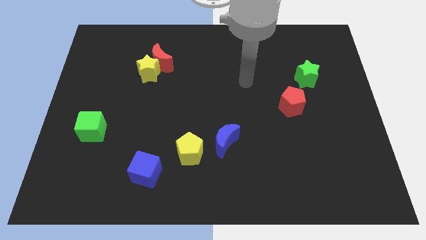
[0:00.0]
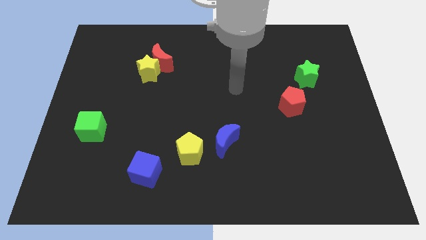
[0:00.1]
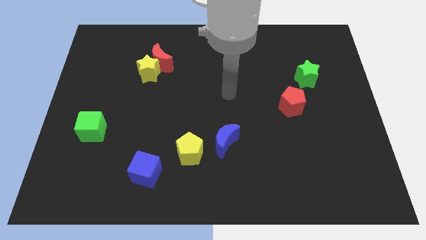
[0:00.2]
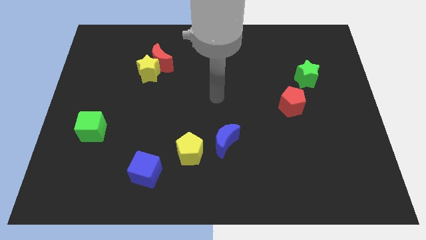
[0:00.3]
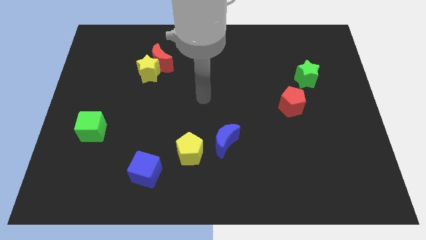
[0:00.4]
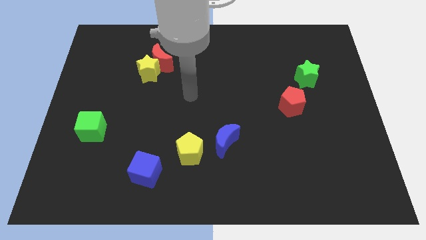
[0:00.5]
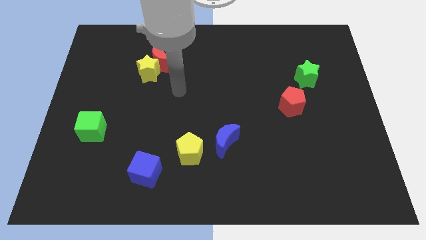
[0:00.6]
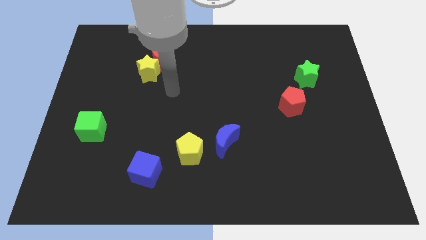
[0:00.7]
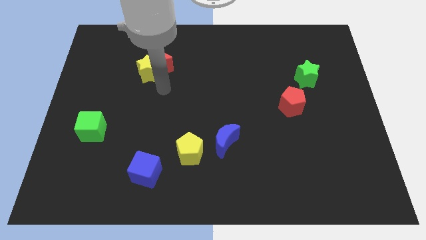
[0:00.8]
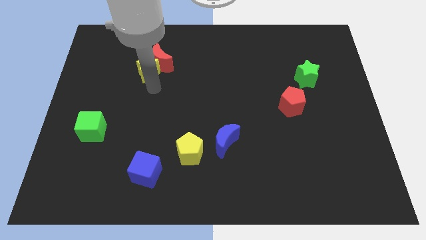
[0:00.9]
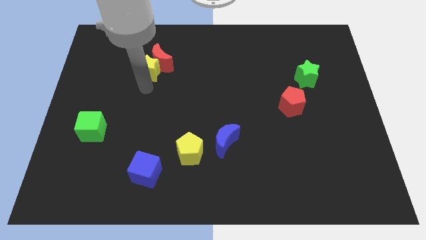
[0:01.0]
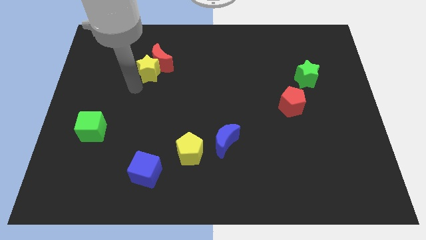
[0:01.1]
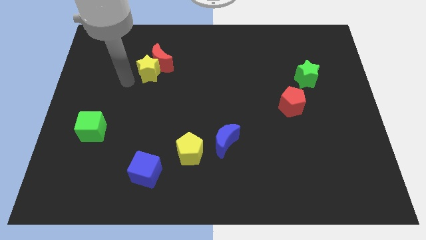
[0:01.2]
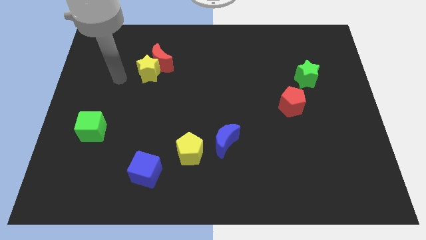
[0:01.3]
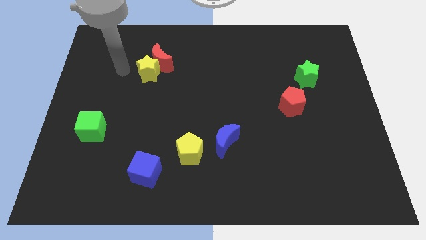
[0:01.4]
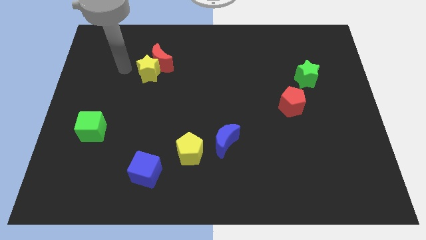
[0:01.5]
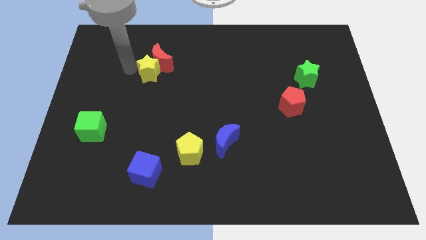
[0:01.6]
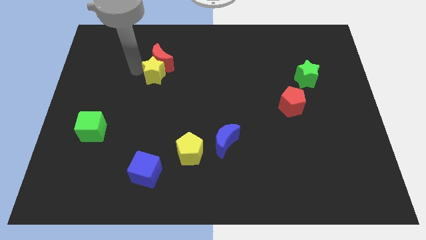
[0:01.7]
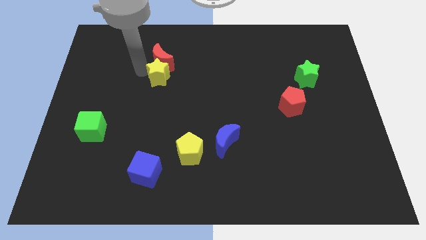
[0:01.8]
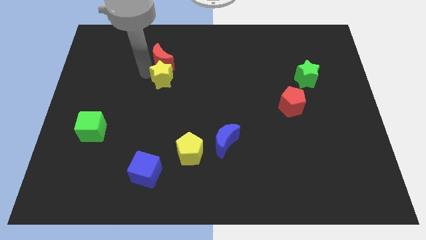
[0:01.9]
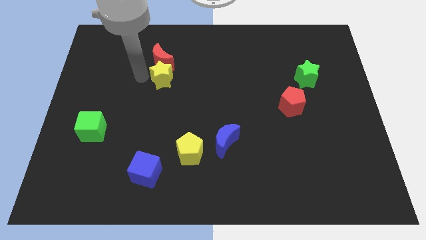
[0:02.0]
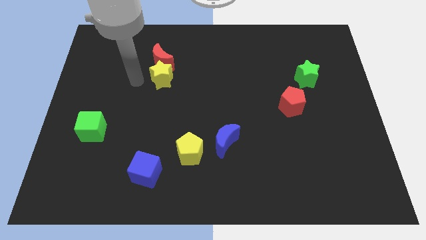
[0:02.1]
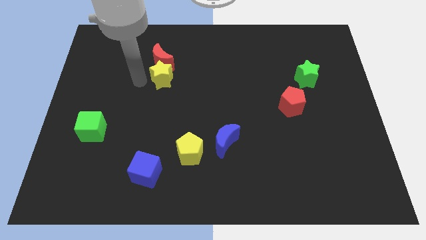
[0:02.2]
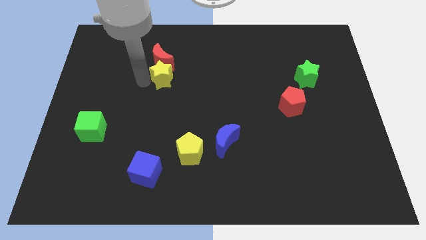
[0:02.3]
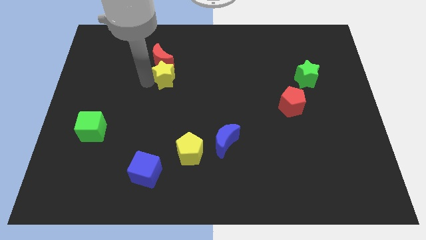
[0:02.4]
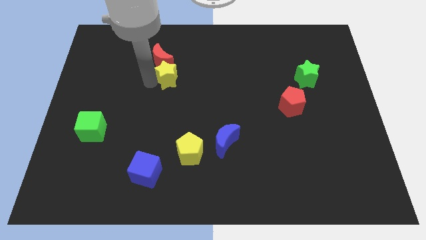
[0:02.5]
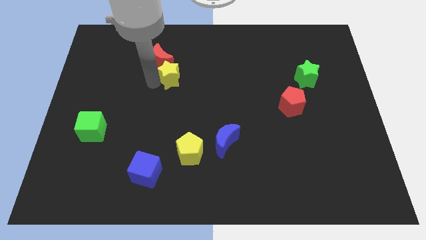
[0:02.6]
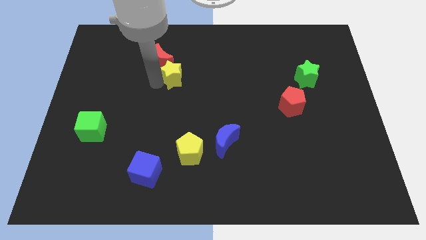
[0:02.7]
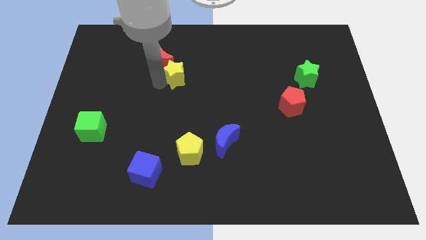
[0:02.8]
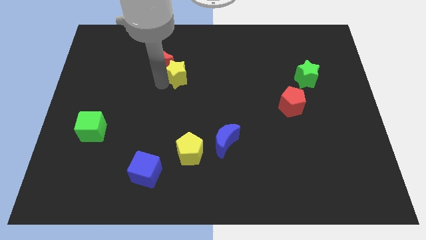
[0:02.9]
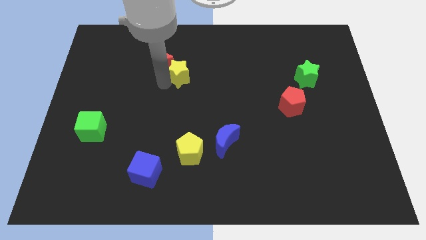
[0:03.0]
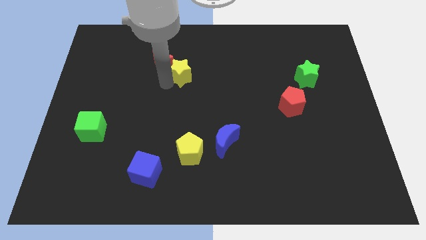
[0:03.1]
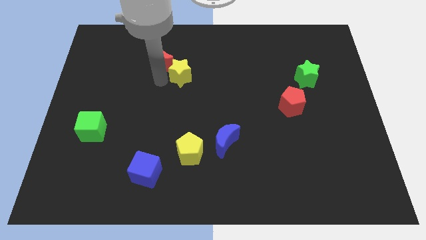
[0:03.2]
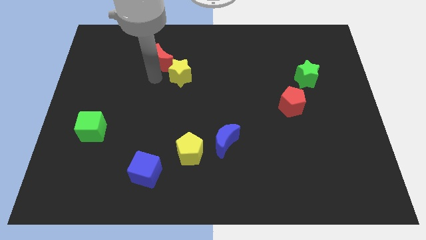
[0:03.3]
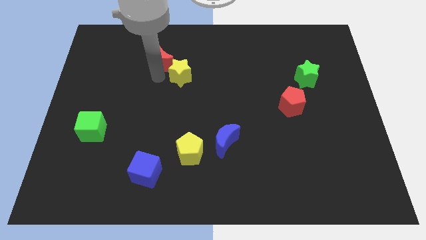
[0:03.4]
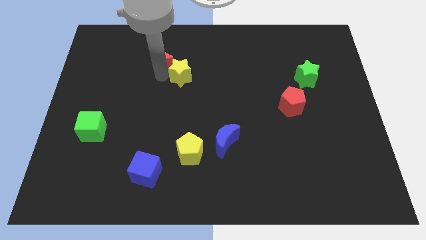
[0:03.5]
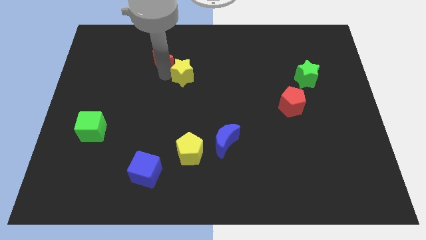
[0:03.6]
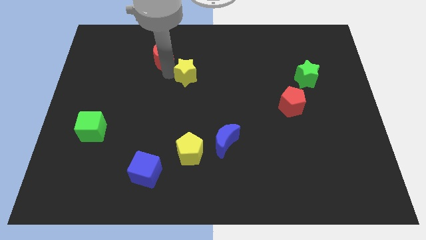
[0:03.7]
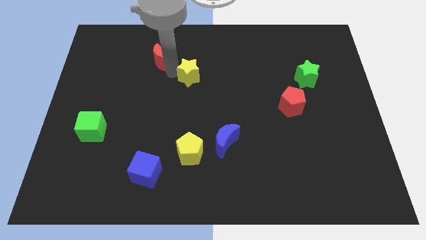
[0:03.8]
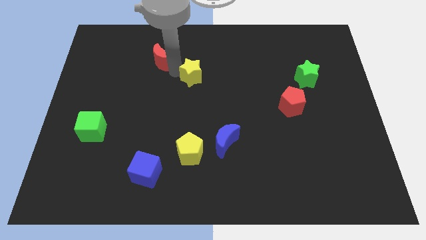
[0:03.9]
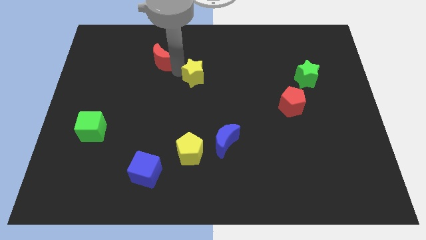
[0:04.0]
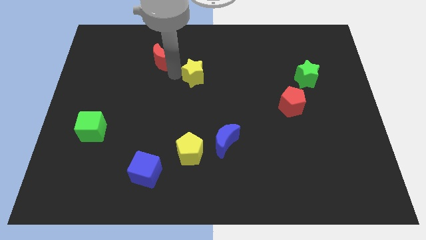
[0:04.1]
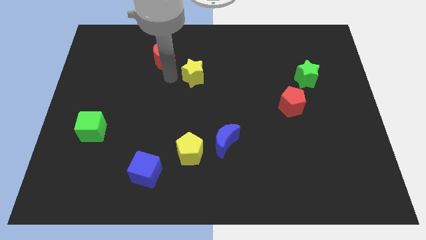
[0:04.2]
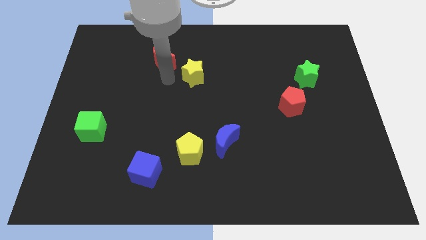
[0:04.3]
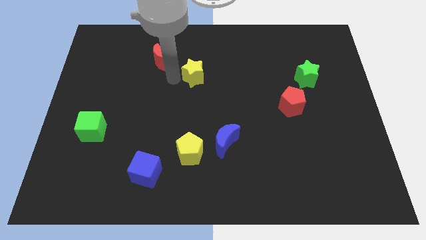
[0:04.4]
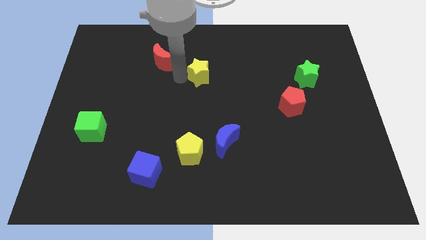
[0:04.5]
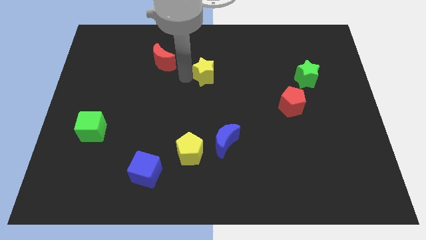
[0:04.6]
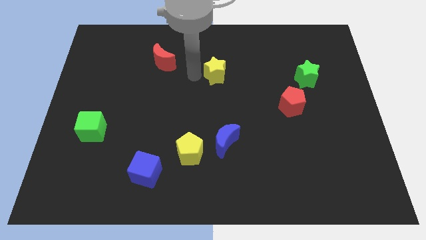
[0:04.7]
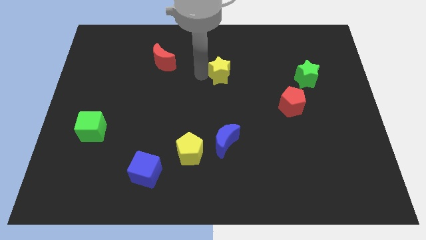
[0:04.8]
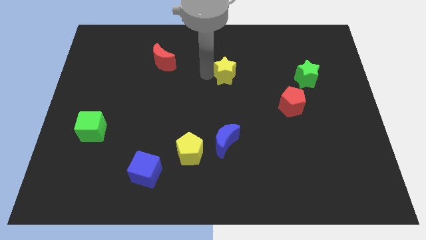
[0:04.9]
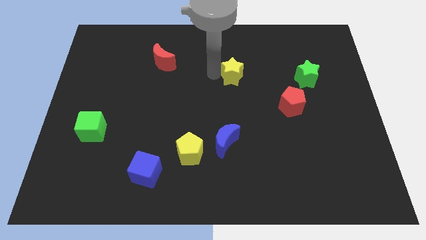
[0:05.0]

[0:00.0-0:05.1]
push the yellow star to the right

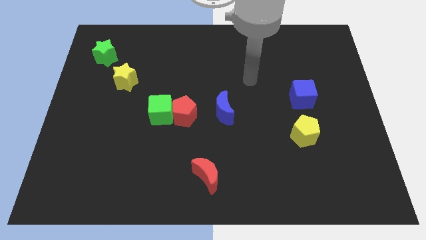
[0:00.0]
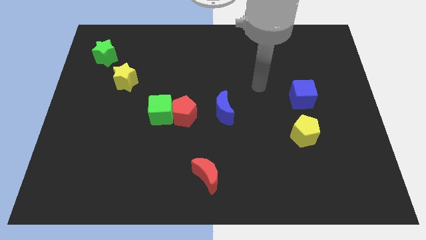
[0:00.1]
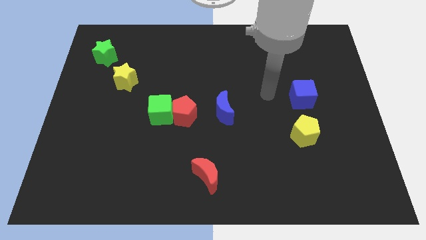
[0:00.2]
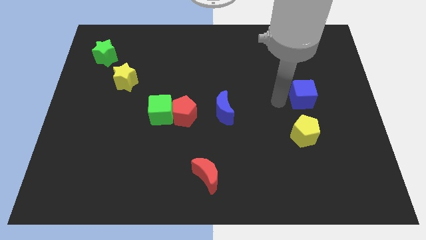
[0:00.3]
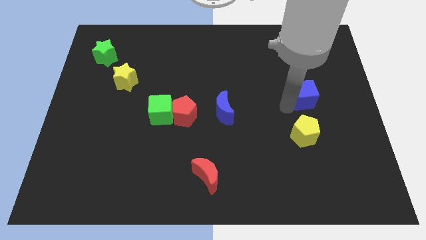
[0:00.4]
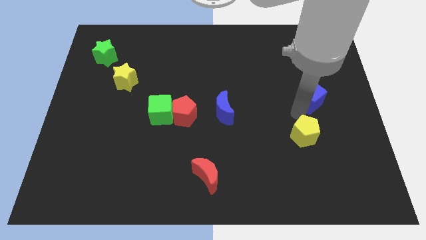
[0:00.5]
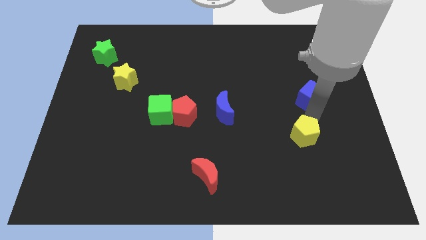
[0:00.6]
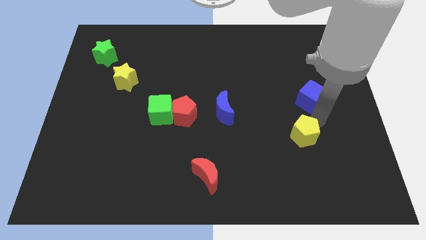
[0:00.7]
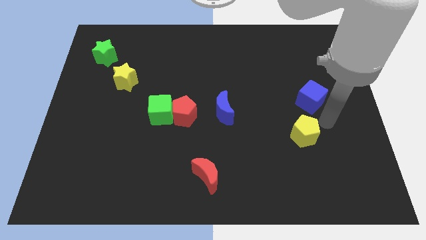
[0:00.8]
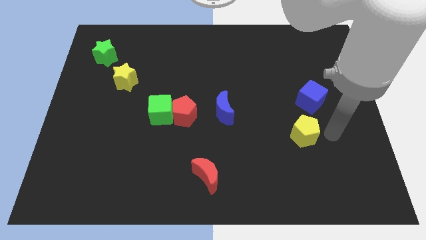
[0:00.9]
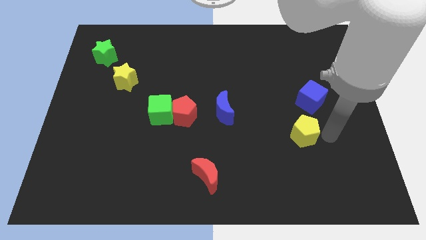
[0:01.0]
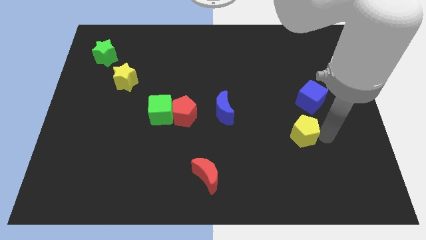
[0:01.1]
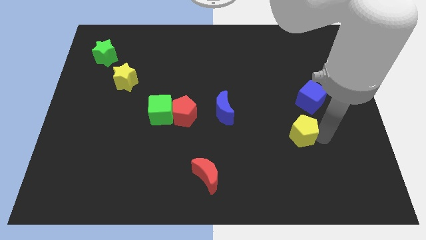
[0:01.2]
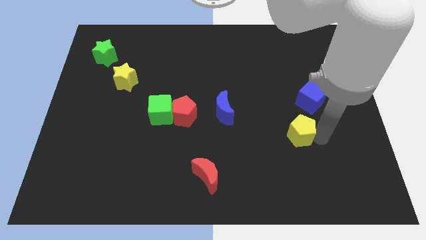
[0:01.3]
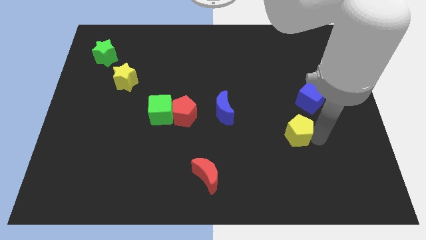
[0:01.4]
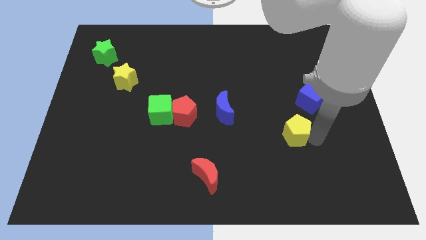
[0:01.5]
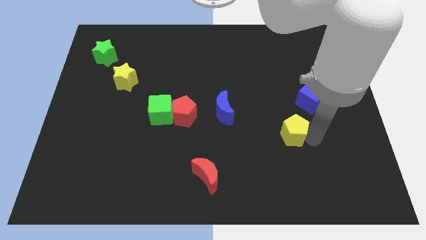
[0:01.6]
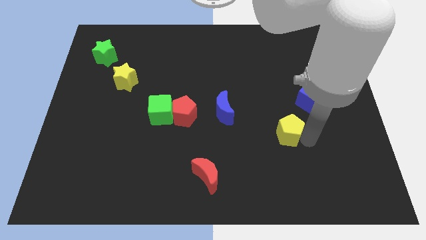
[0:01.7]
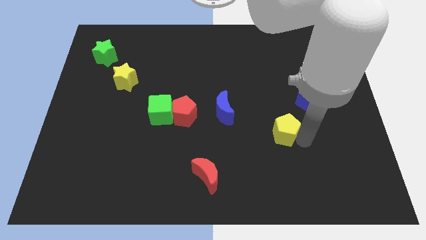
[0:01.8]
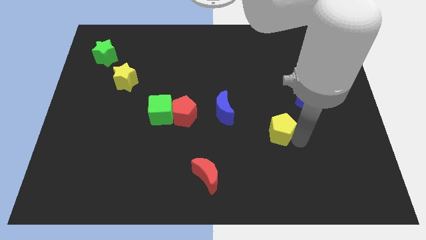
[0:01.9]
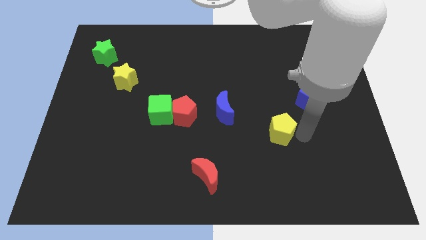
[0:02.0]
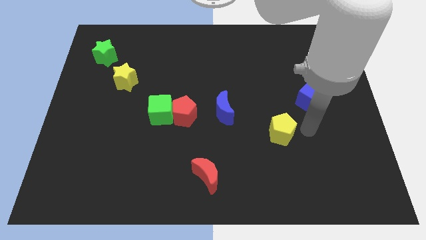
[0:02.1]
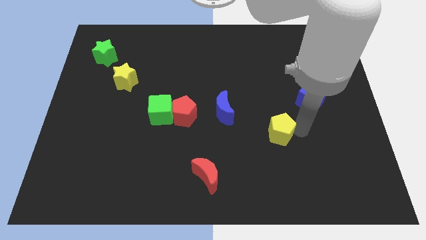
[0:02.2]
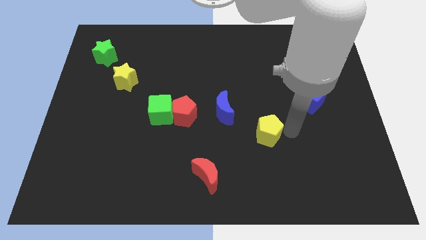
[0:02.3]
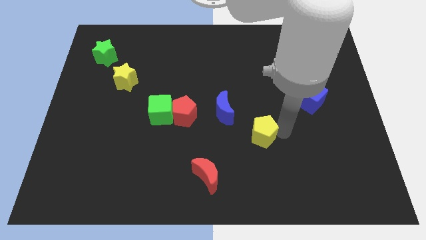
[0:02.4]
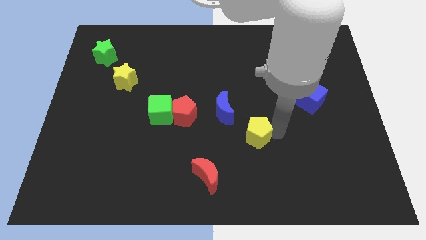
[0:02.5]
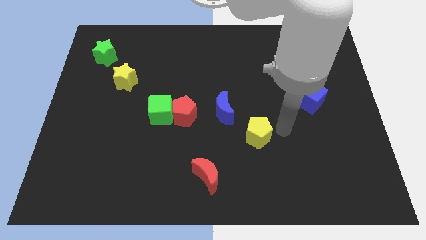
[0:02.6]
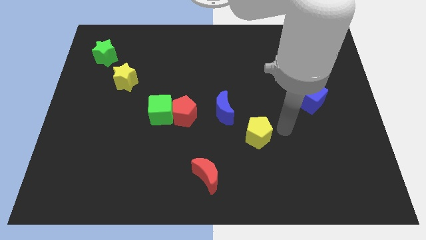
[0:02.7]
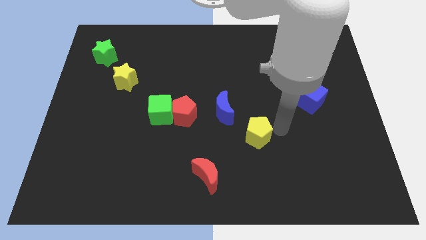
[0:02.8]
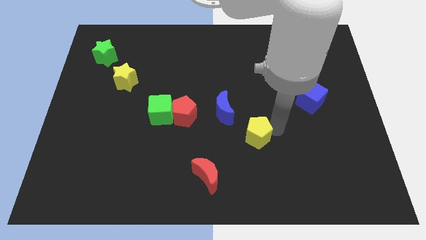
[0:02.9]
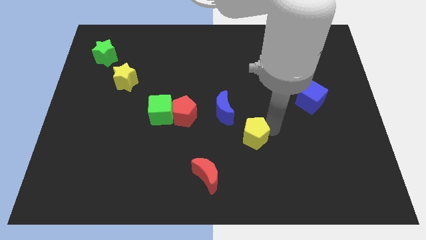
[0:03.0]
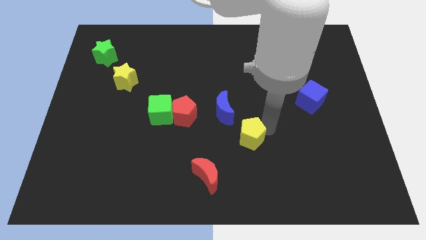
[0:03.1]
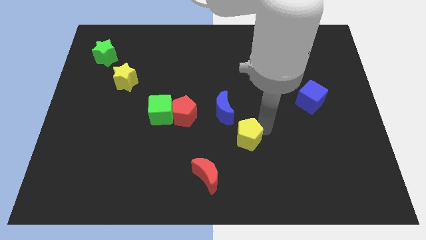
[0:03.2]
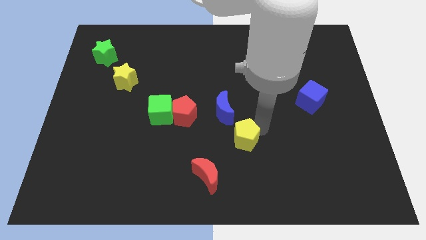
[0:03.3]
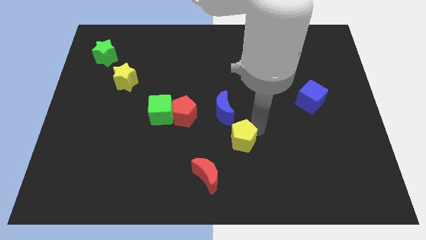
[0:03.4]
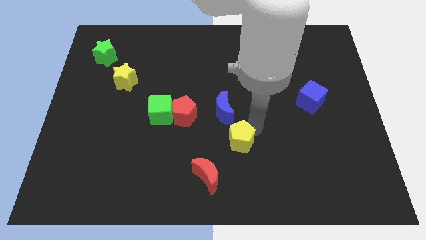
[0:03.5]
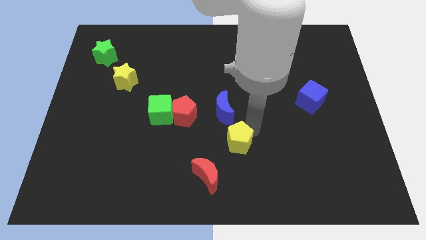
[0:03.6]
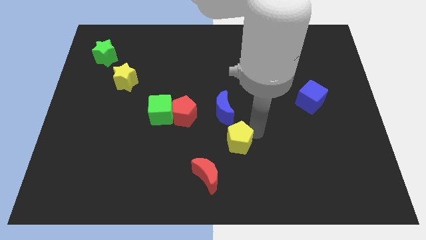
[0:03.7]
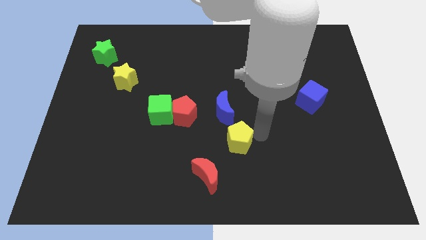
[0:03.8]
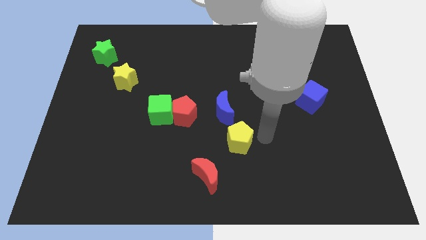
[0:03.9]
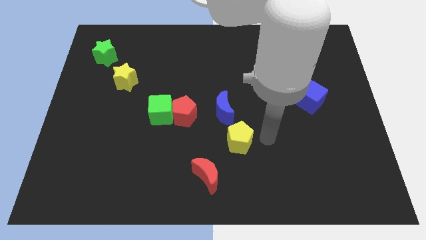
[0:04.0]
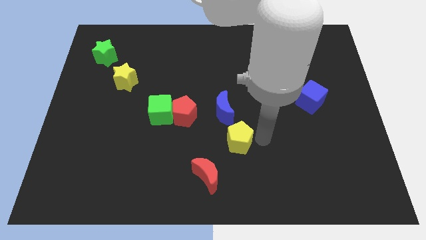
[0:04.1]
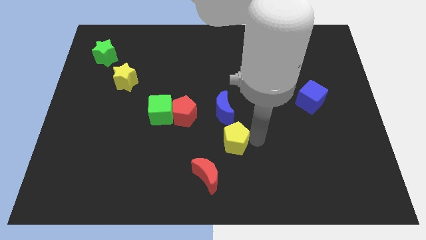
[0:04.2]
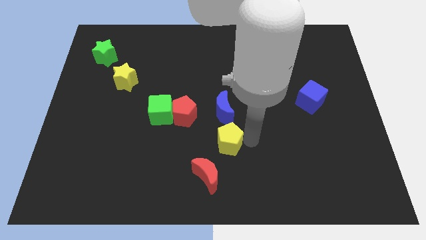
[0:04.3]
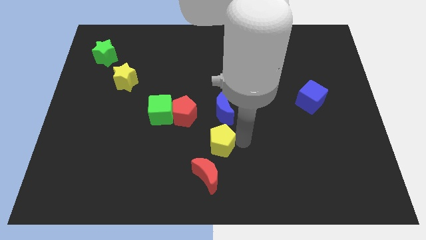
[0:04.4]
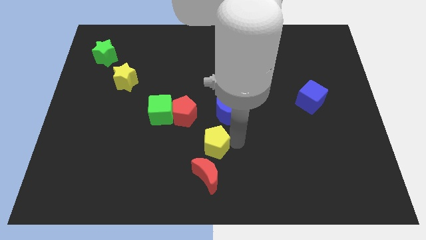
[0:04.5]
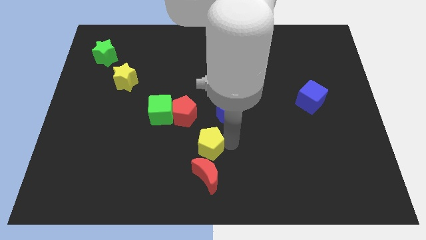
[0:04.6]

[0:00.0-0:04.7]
push the yellow pentagon to the left
